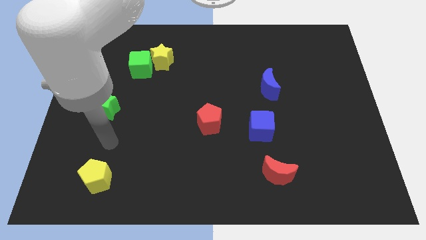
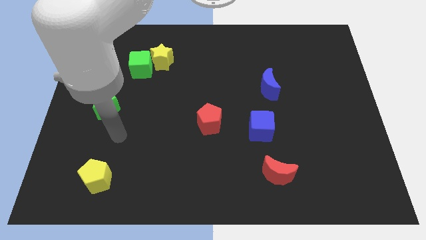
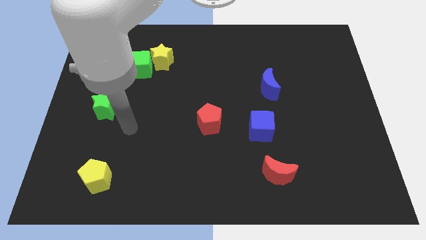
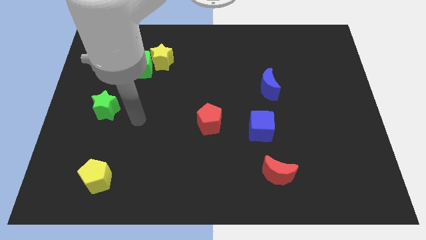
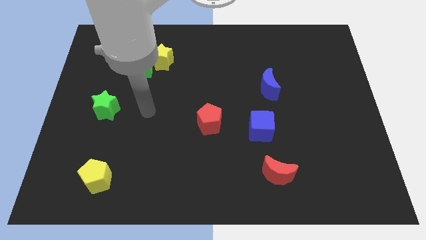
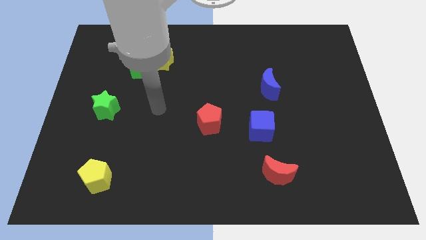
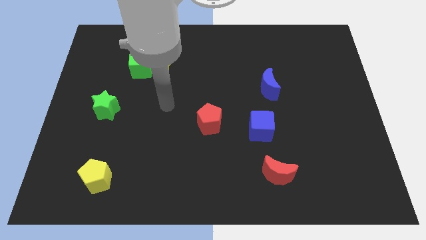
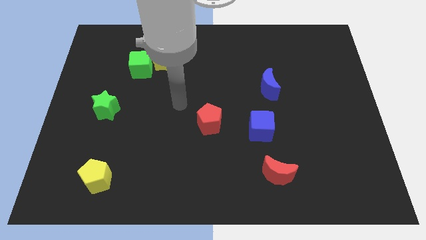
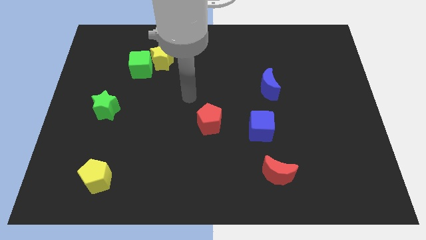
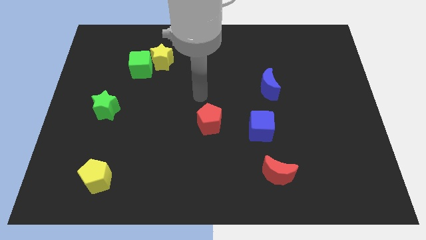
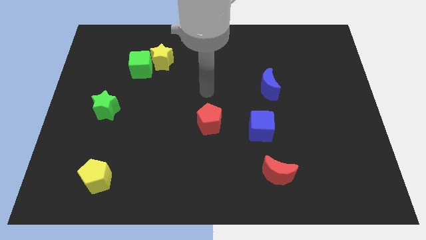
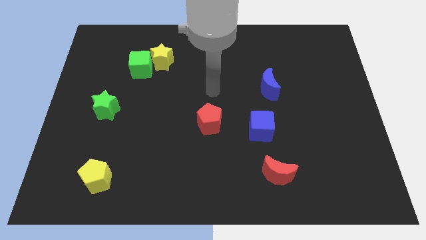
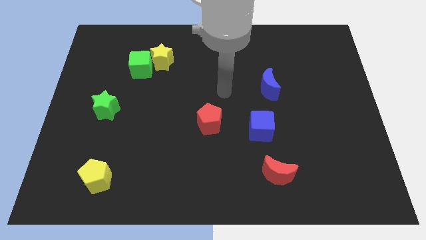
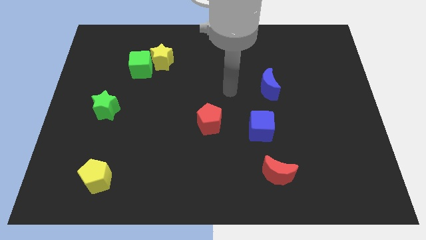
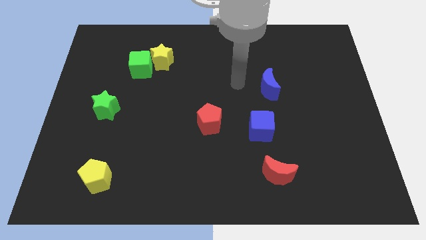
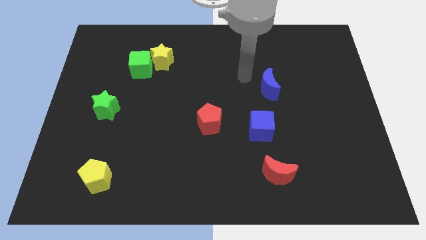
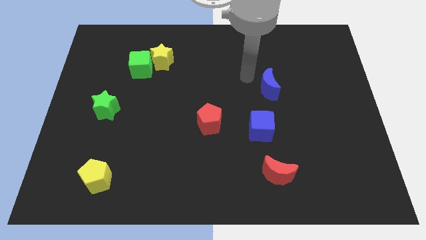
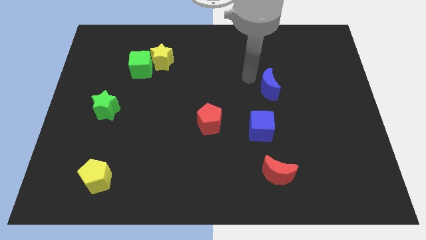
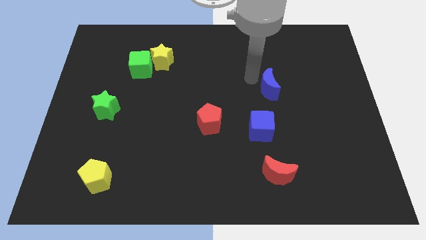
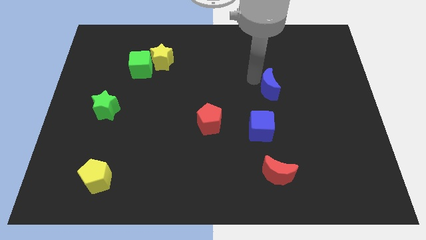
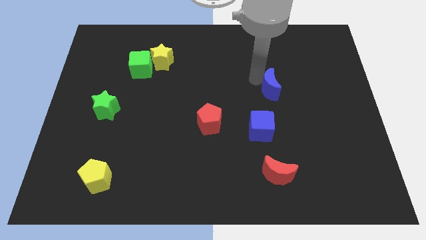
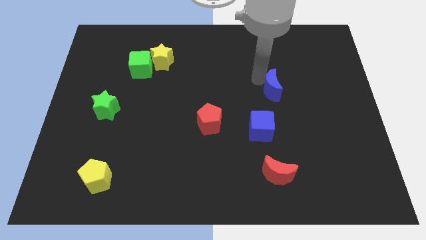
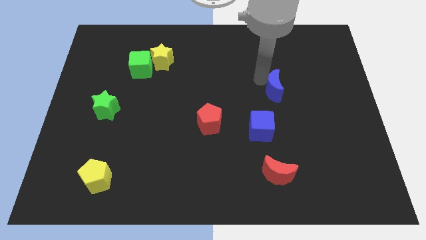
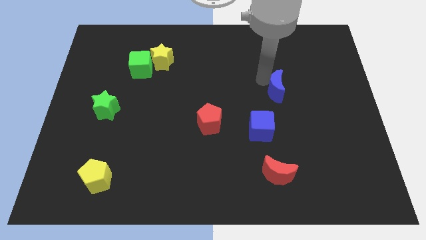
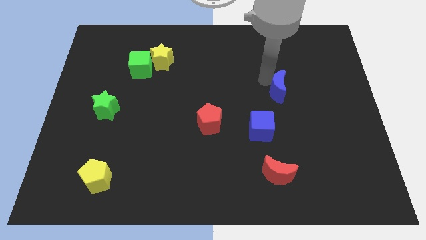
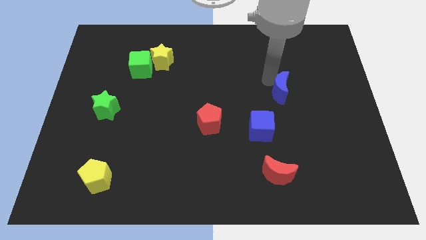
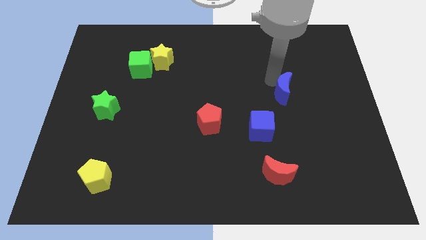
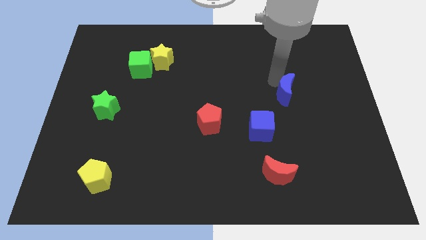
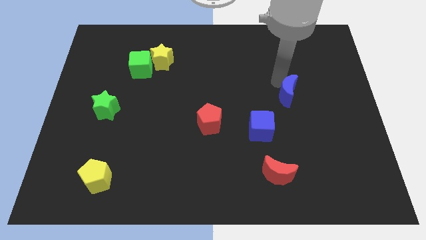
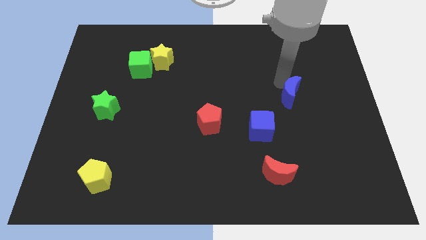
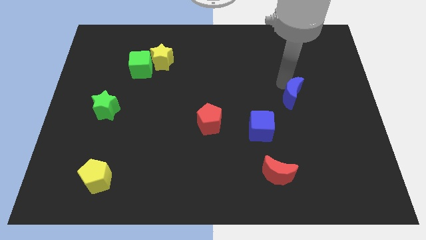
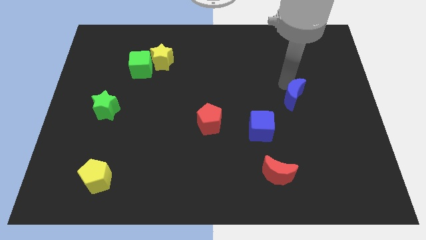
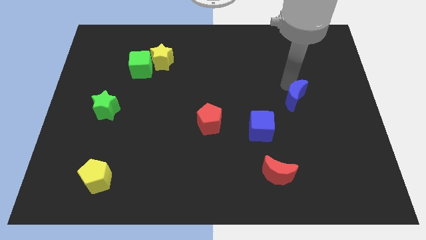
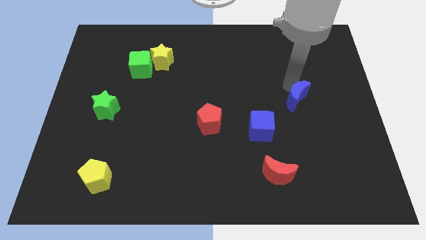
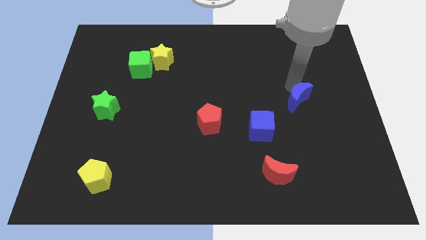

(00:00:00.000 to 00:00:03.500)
move the blue moon downwards and to the right diagonally somewhat

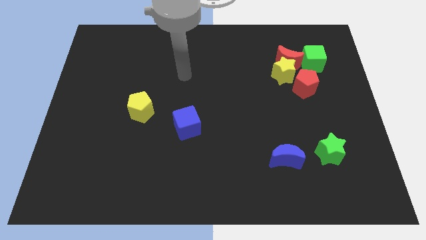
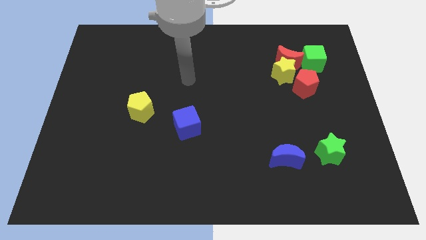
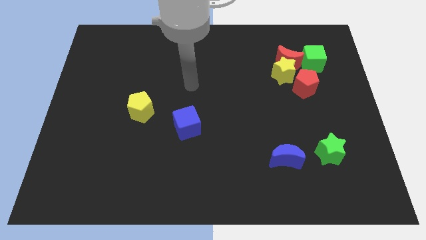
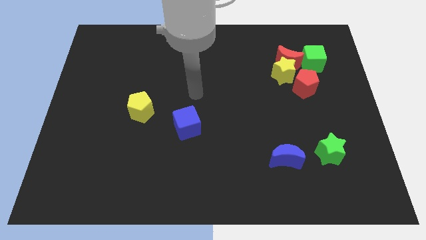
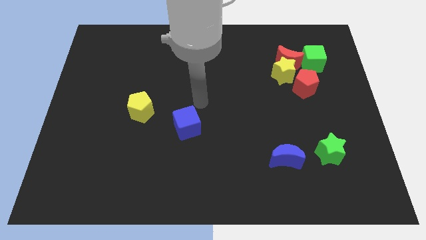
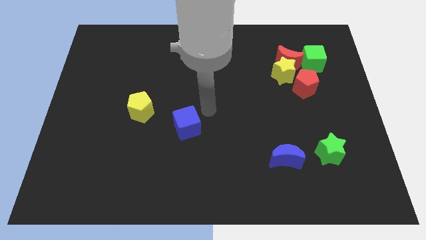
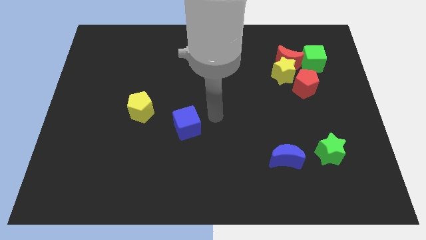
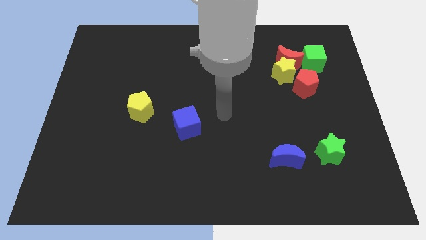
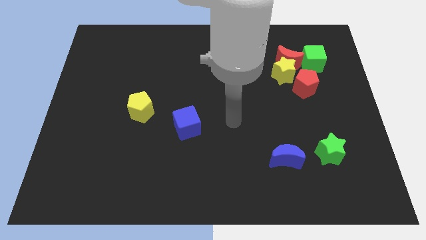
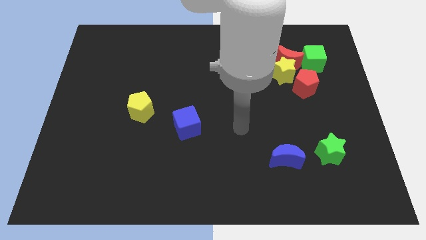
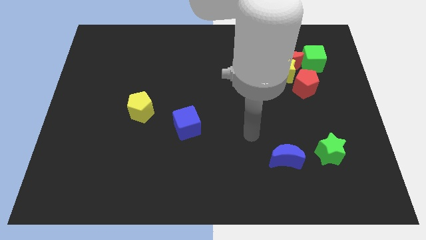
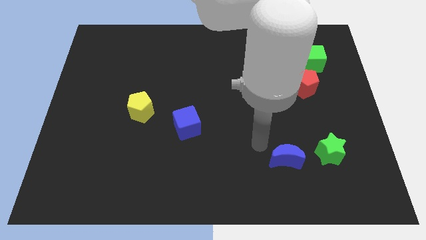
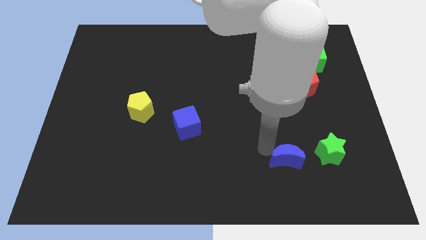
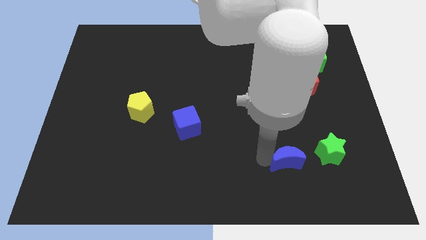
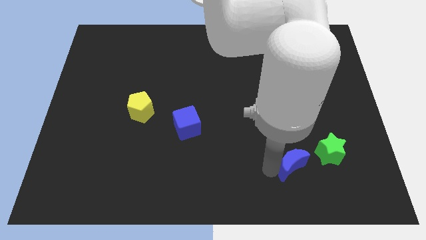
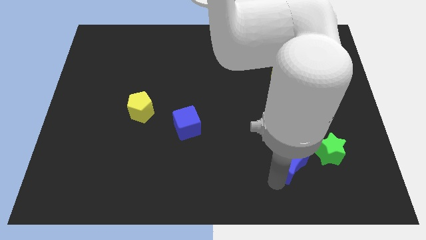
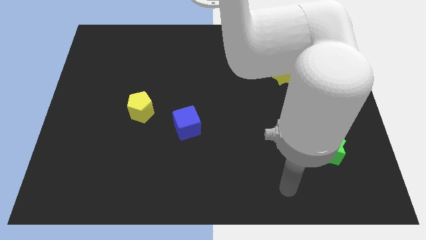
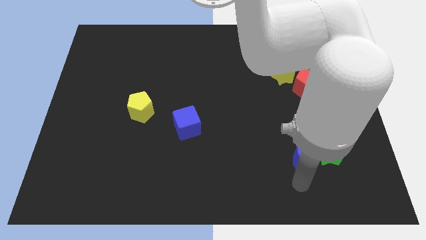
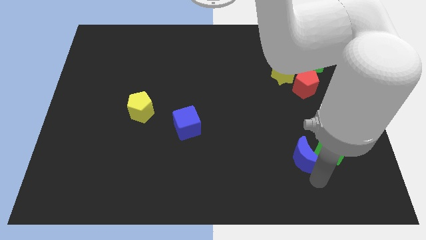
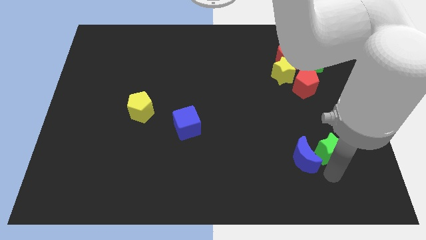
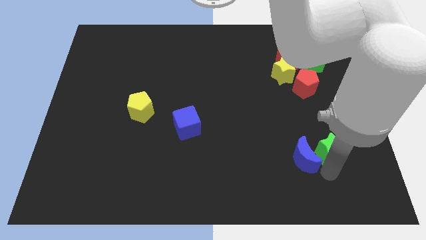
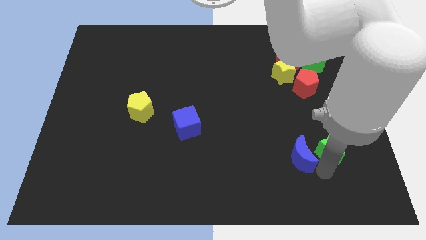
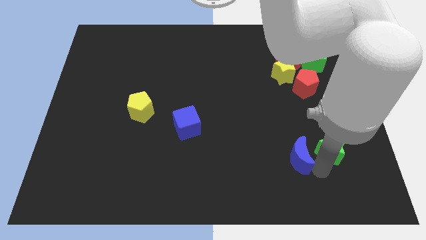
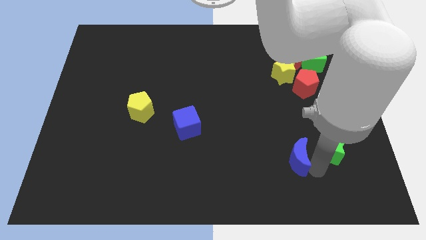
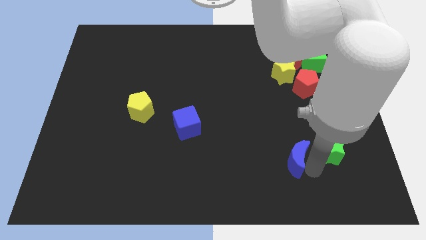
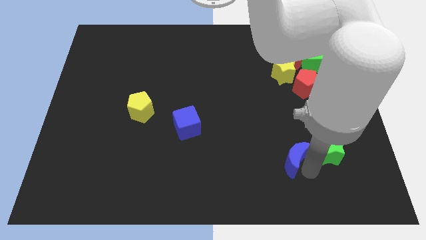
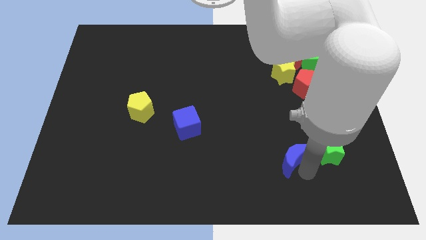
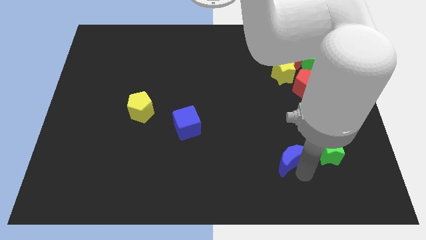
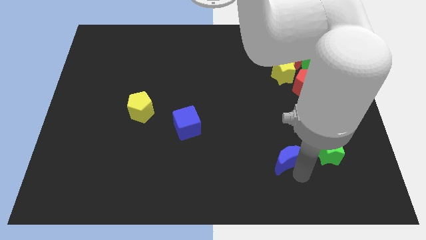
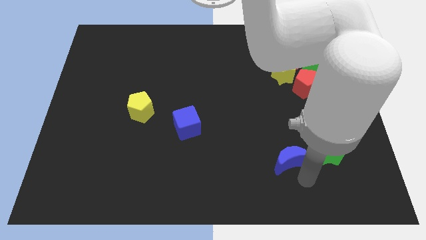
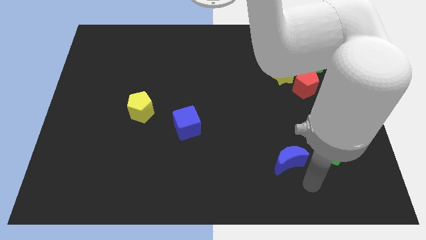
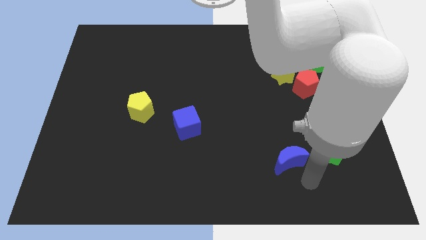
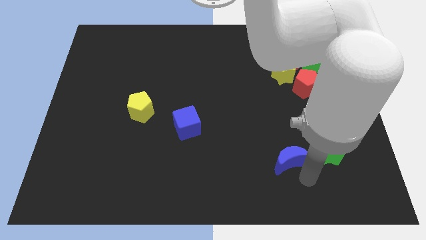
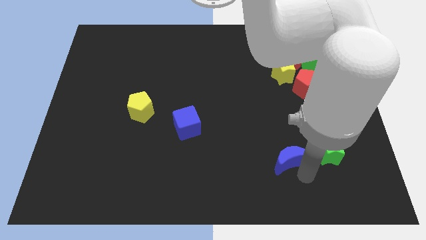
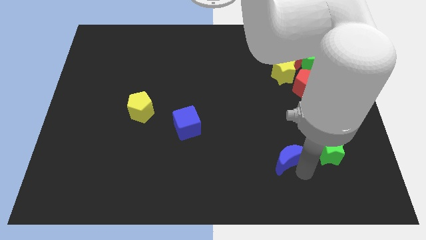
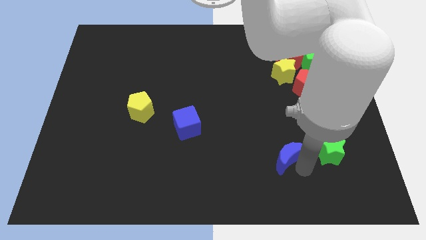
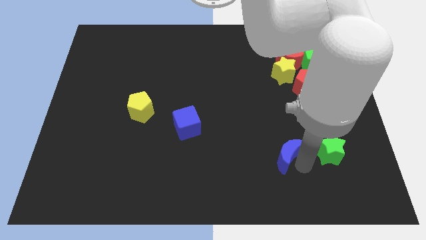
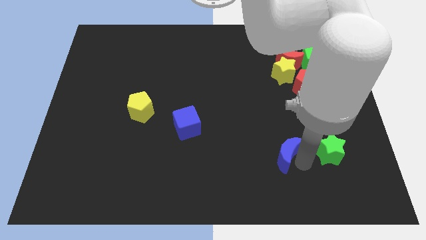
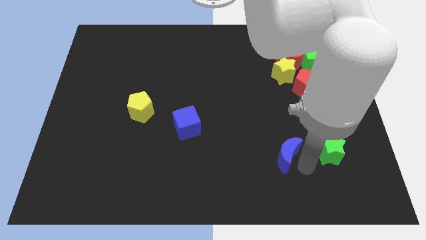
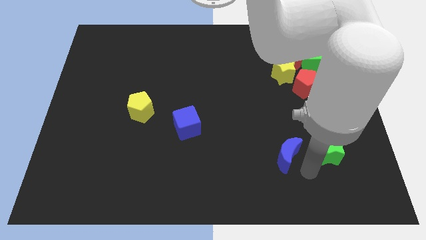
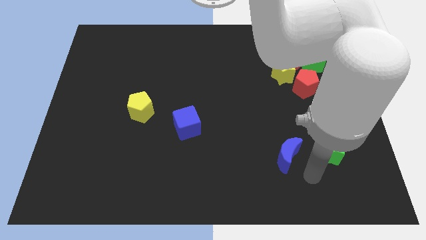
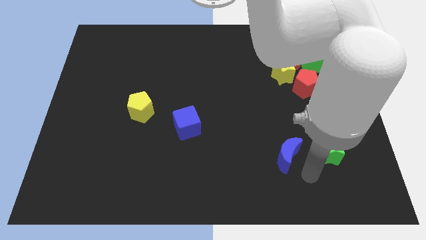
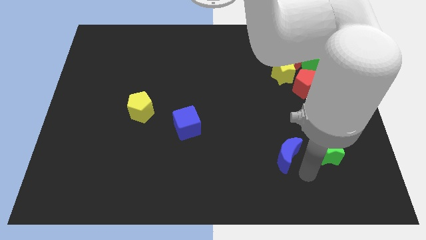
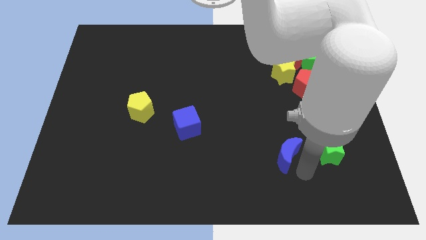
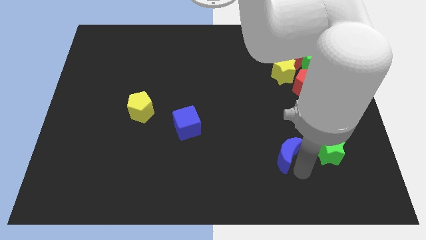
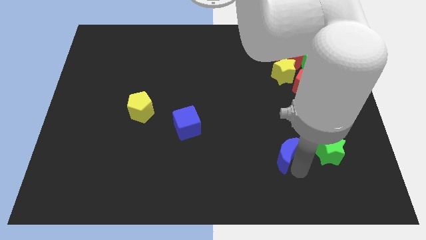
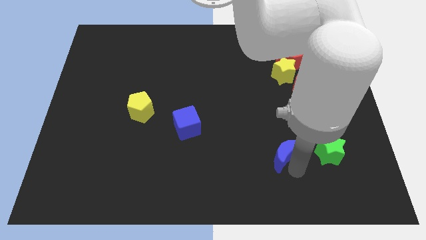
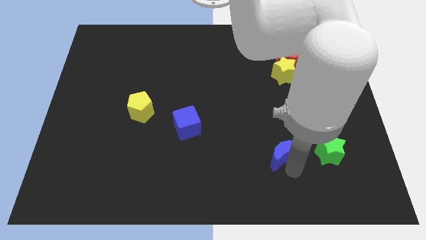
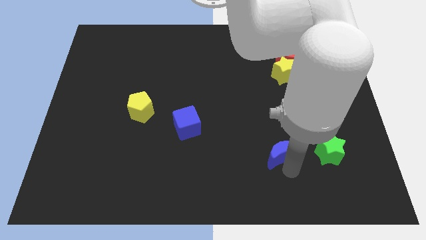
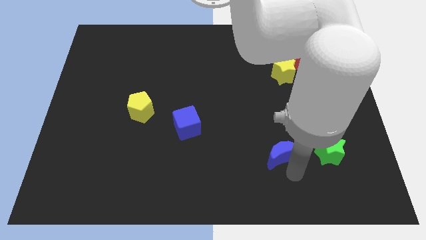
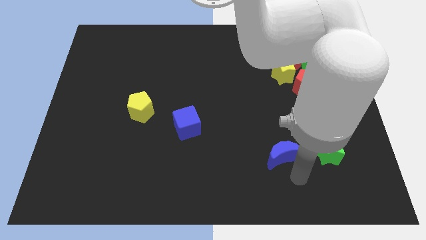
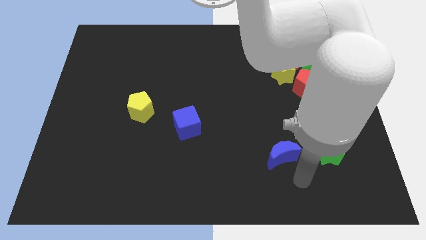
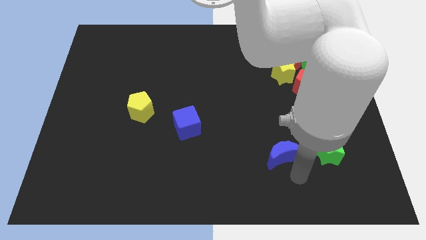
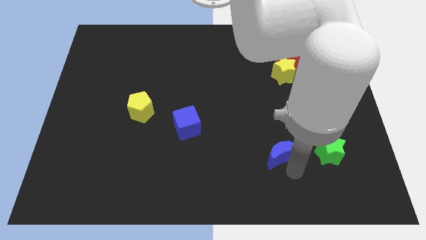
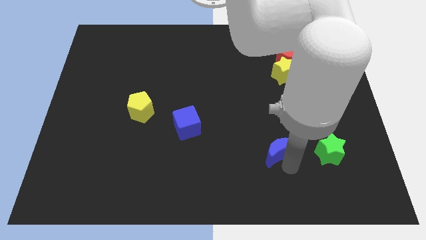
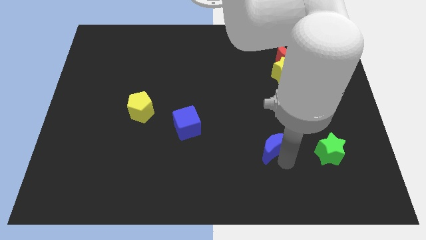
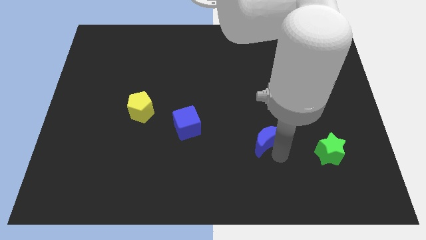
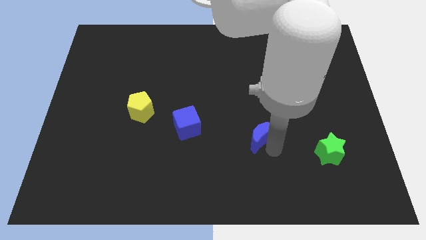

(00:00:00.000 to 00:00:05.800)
slightly move the blue moon up and to the left diagonally
